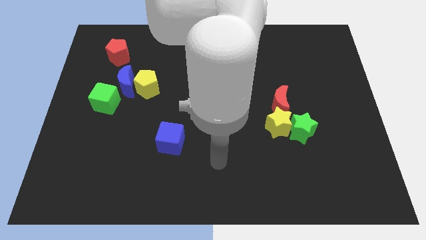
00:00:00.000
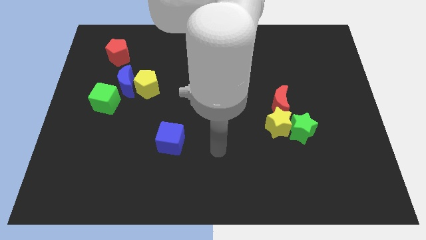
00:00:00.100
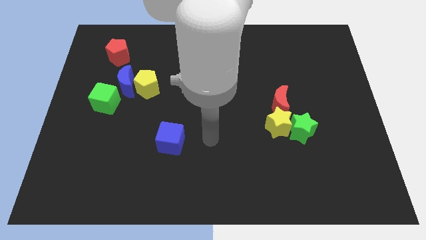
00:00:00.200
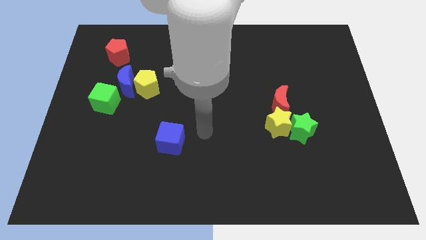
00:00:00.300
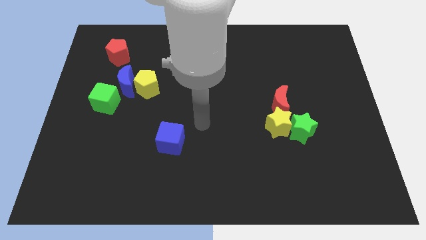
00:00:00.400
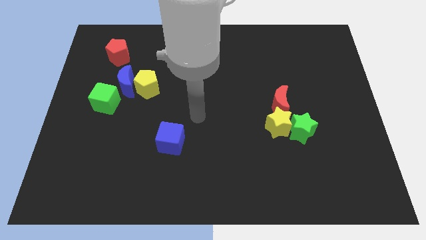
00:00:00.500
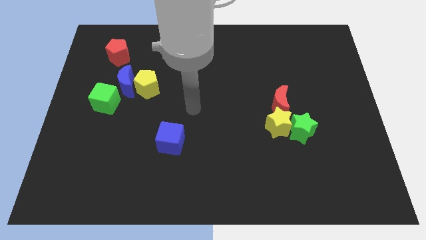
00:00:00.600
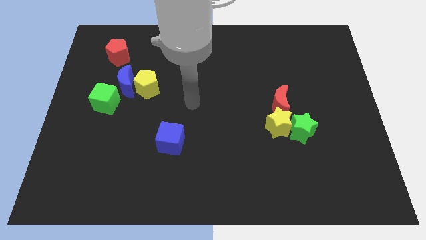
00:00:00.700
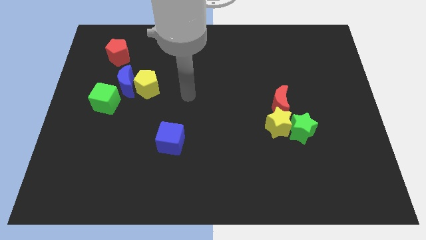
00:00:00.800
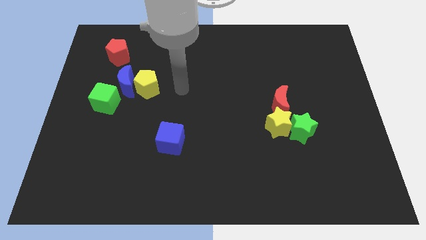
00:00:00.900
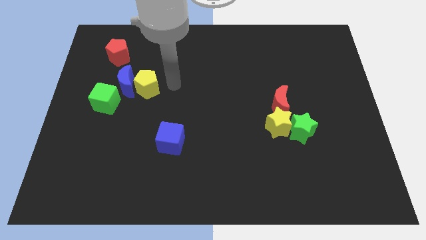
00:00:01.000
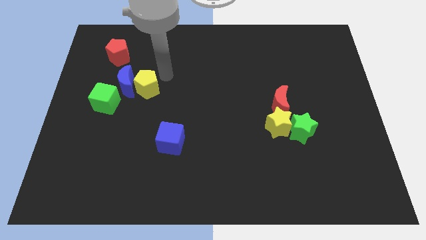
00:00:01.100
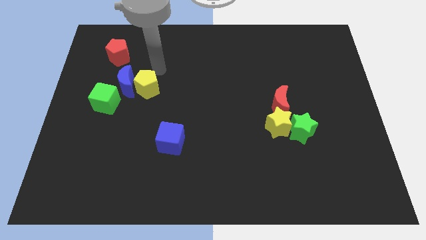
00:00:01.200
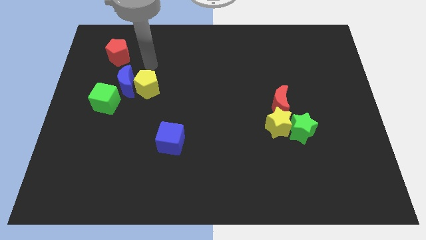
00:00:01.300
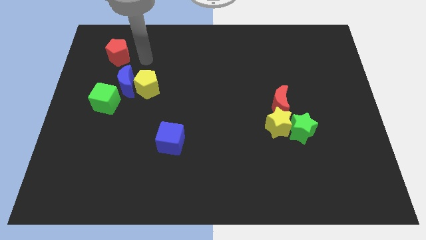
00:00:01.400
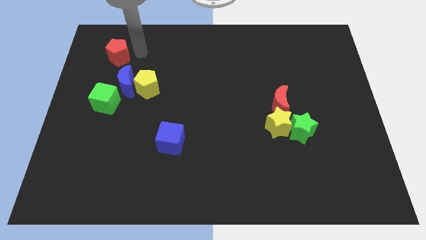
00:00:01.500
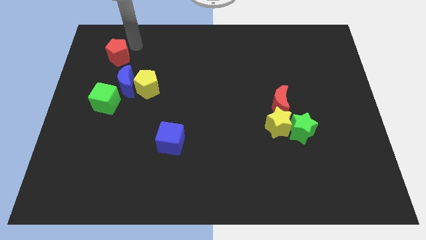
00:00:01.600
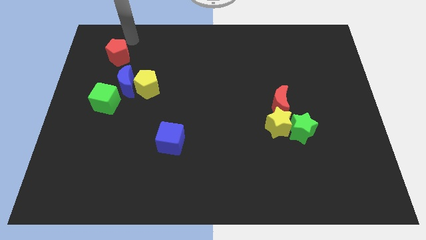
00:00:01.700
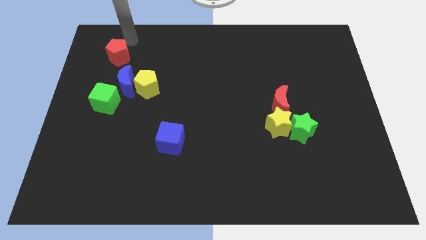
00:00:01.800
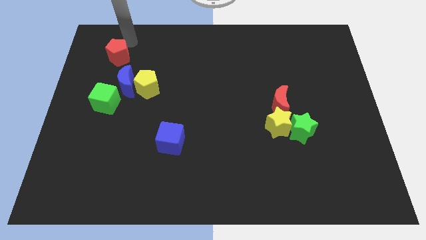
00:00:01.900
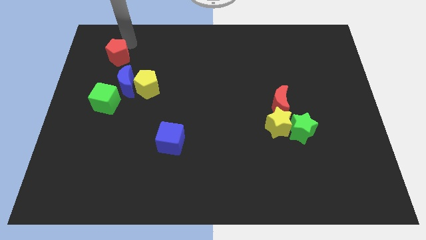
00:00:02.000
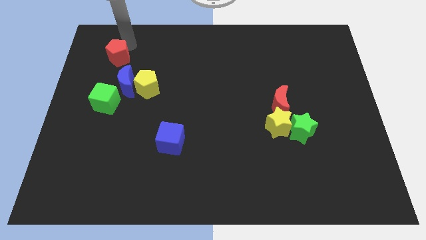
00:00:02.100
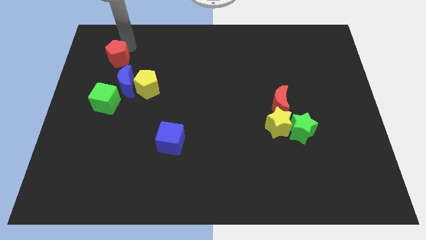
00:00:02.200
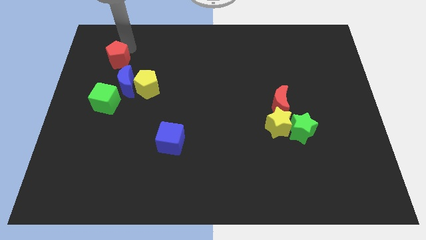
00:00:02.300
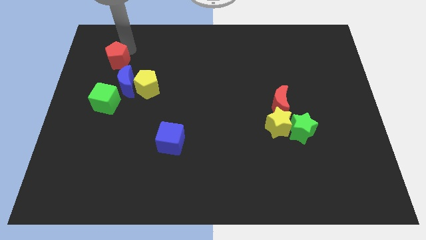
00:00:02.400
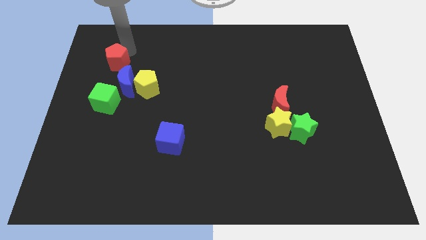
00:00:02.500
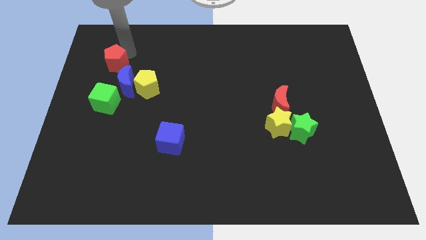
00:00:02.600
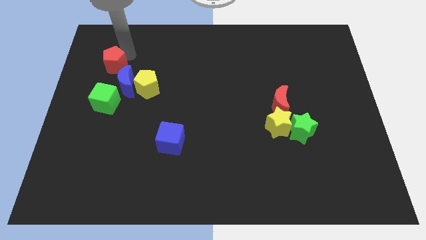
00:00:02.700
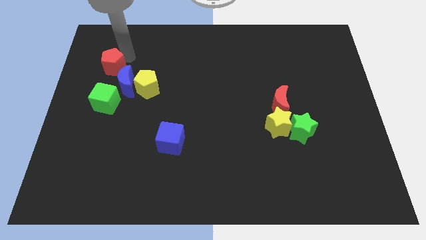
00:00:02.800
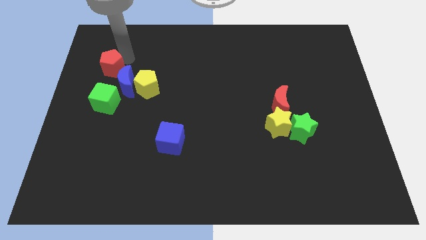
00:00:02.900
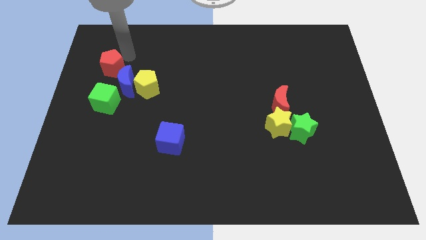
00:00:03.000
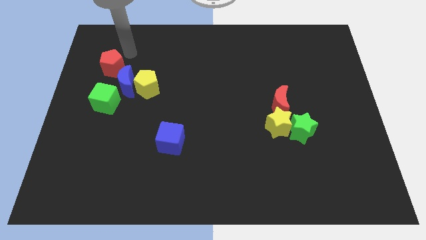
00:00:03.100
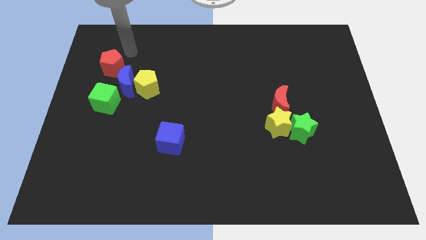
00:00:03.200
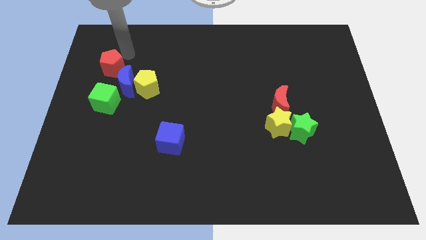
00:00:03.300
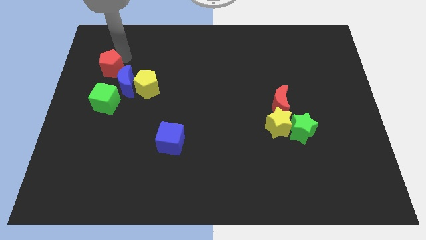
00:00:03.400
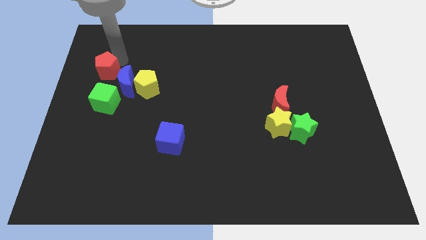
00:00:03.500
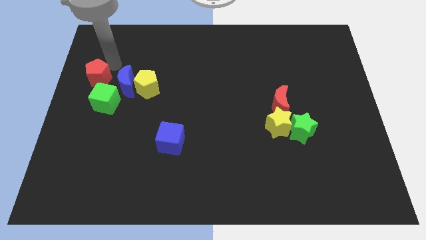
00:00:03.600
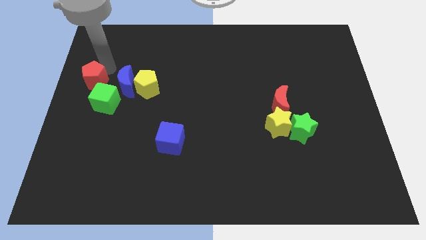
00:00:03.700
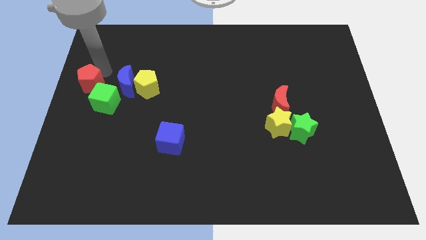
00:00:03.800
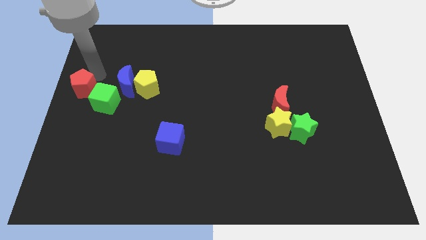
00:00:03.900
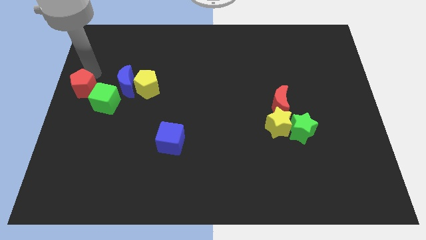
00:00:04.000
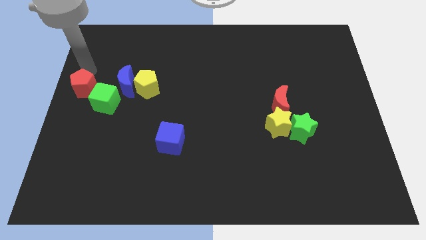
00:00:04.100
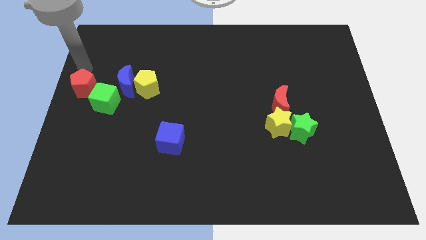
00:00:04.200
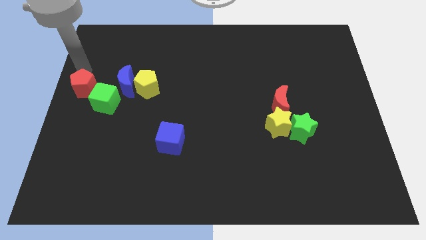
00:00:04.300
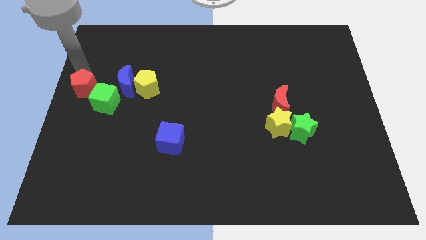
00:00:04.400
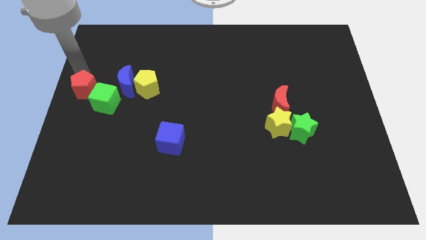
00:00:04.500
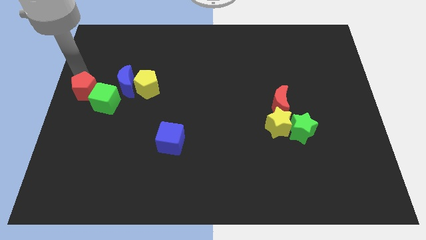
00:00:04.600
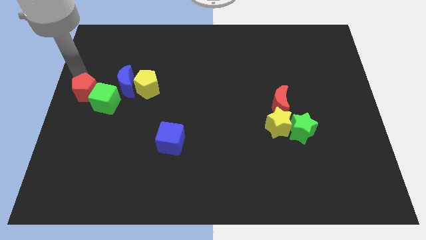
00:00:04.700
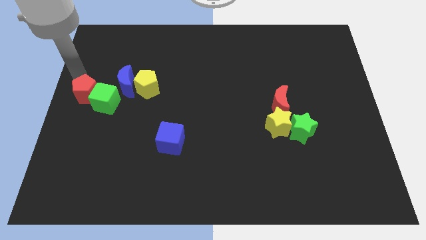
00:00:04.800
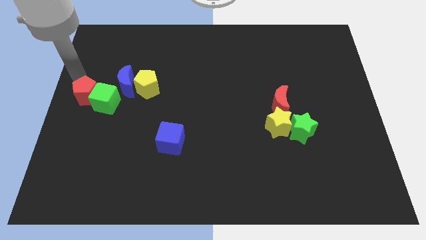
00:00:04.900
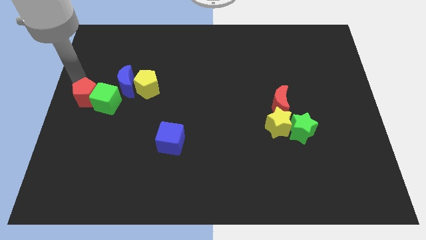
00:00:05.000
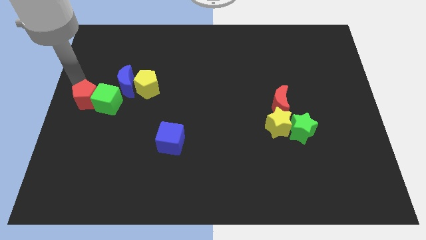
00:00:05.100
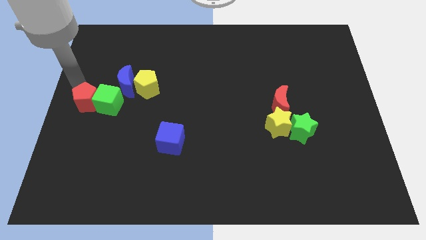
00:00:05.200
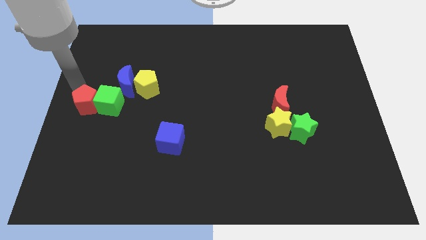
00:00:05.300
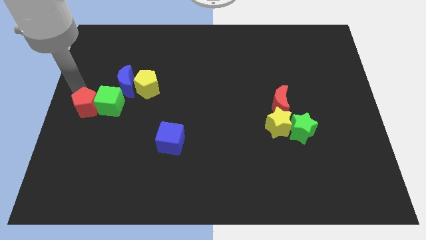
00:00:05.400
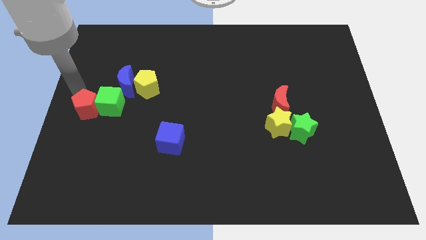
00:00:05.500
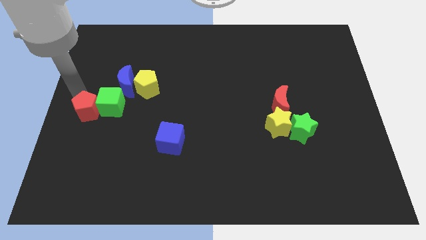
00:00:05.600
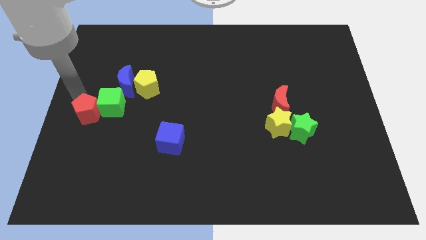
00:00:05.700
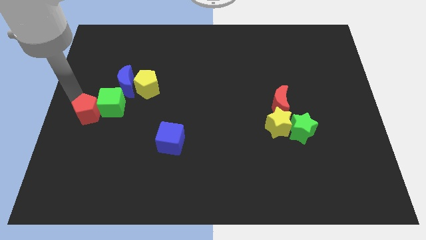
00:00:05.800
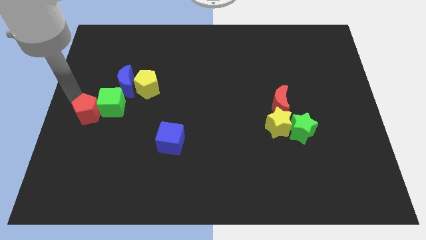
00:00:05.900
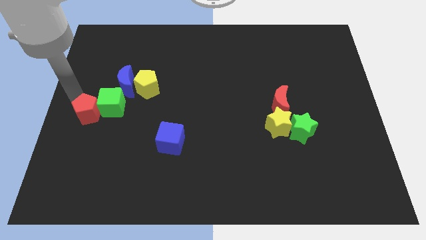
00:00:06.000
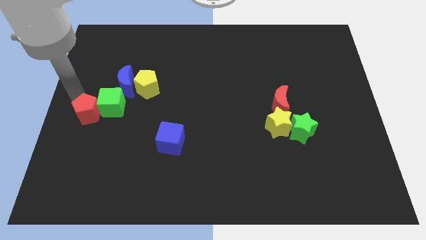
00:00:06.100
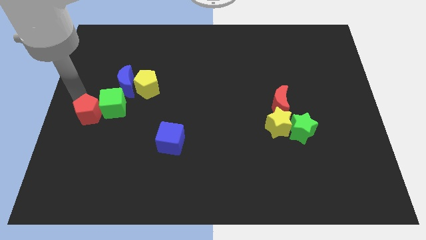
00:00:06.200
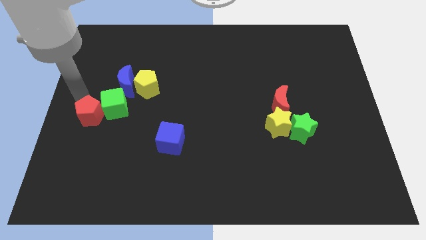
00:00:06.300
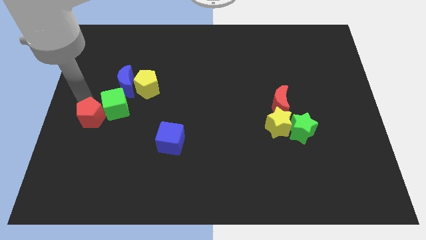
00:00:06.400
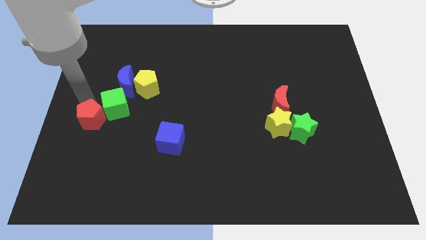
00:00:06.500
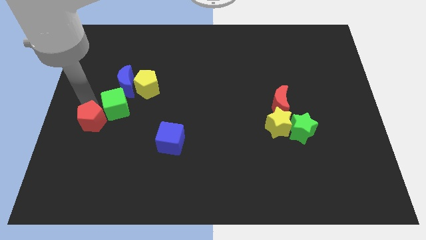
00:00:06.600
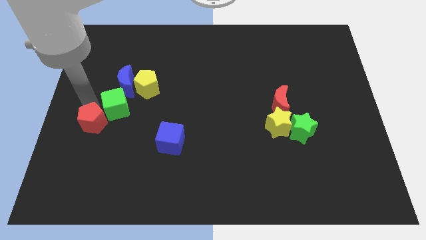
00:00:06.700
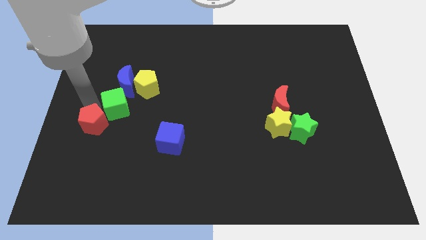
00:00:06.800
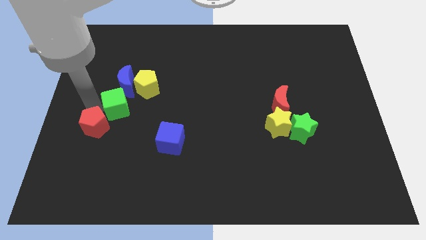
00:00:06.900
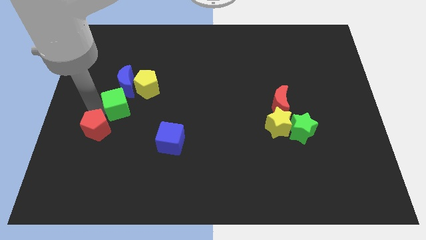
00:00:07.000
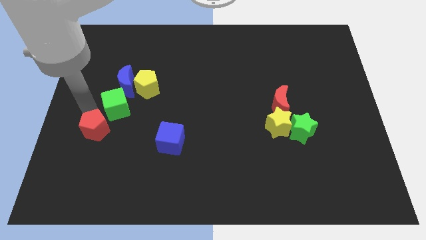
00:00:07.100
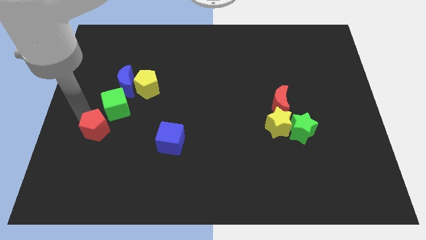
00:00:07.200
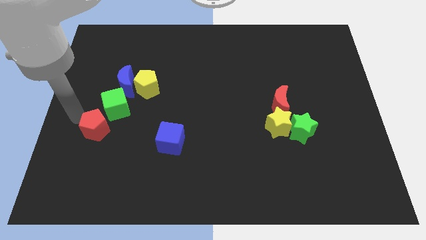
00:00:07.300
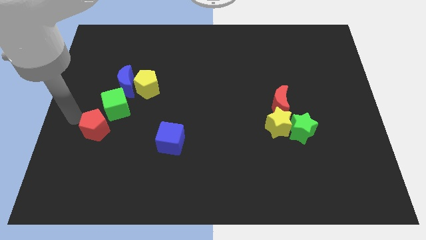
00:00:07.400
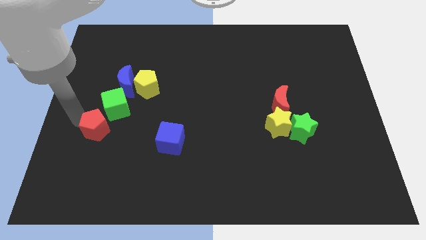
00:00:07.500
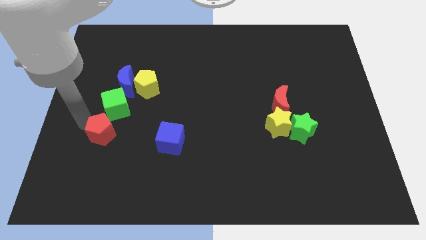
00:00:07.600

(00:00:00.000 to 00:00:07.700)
push the red pentagon left of the blue cube
